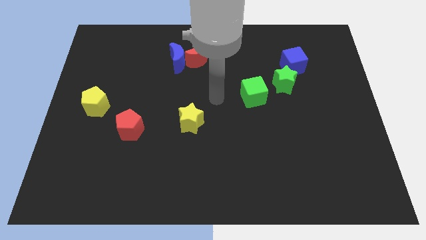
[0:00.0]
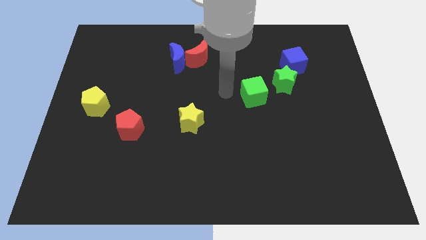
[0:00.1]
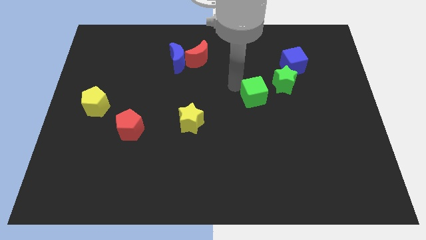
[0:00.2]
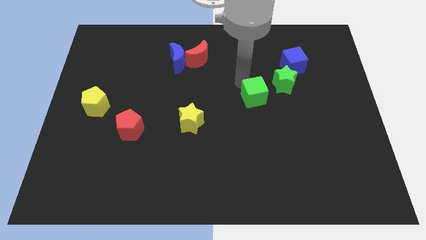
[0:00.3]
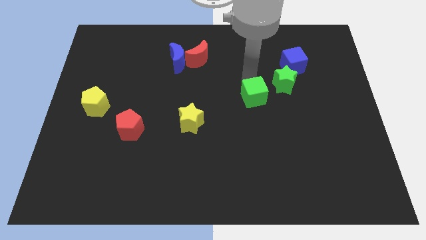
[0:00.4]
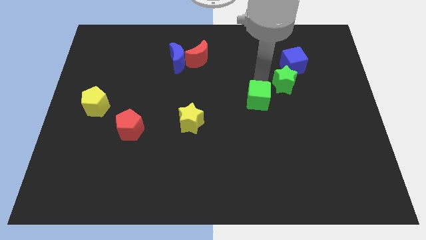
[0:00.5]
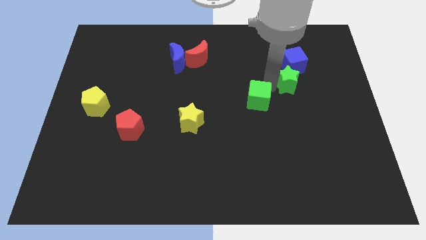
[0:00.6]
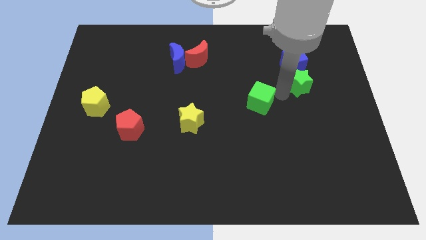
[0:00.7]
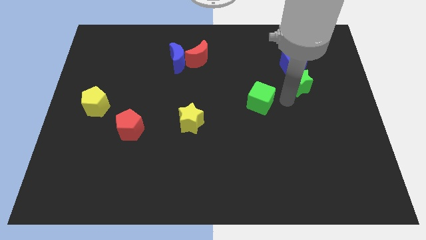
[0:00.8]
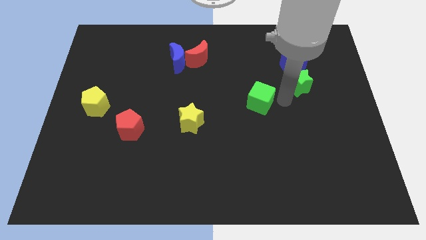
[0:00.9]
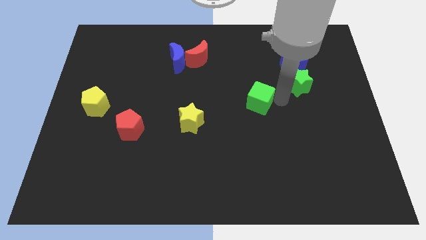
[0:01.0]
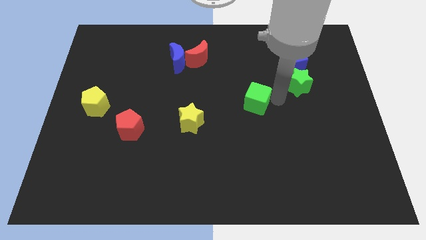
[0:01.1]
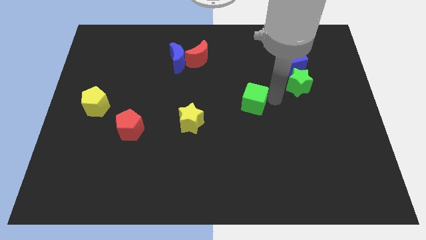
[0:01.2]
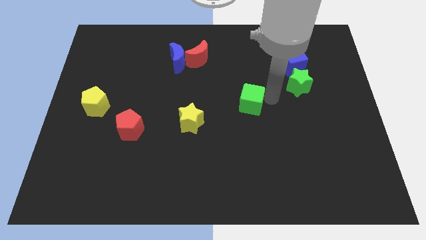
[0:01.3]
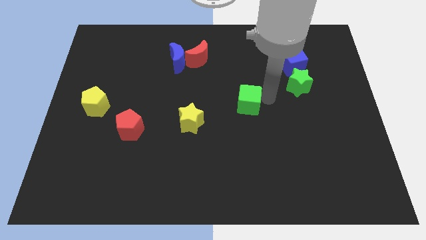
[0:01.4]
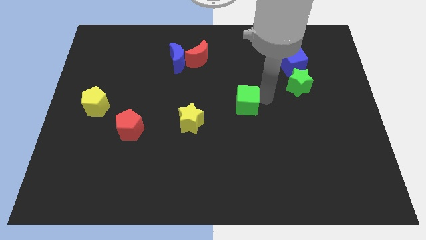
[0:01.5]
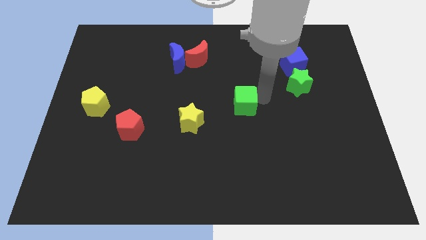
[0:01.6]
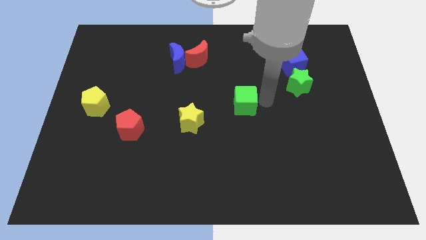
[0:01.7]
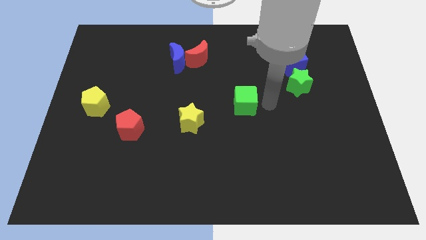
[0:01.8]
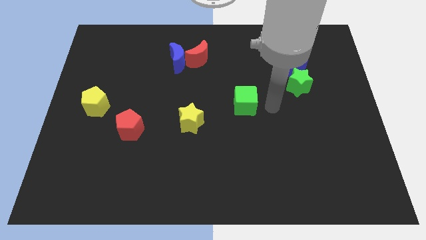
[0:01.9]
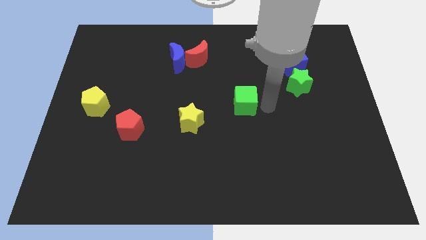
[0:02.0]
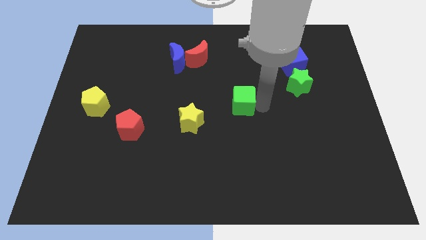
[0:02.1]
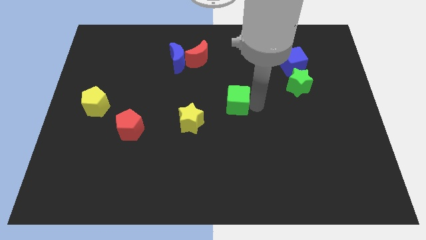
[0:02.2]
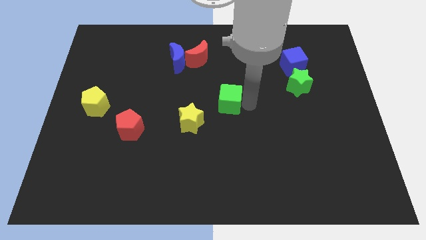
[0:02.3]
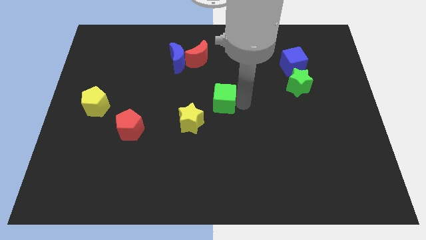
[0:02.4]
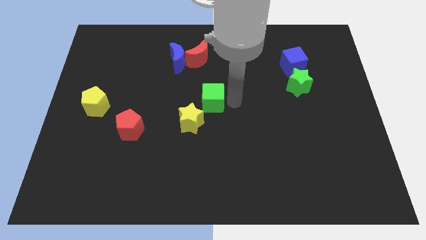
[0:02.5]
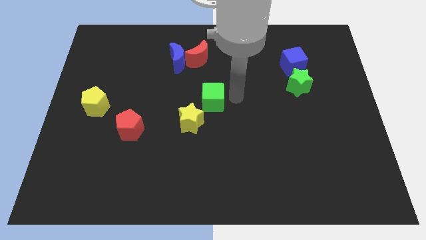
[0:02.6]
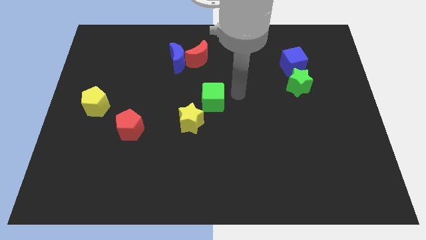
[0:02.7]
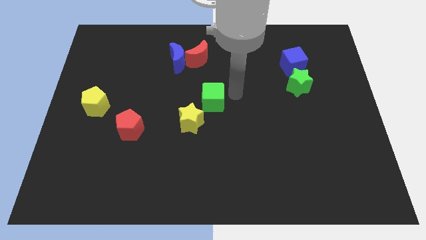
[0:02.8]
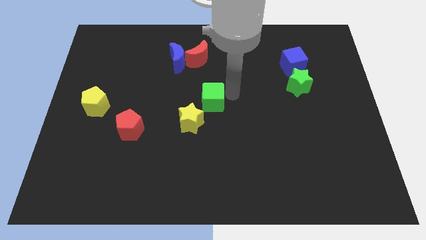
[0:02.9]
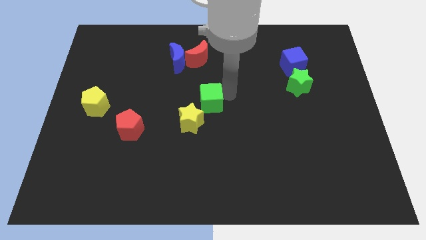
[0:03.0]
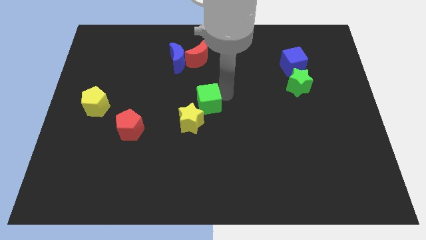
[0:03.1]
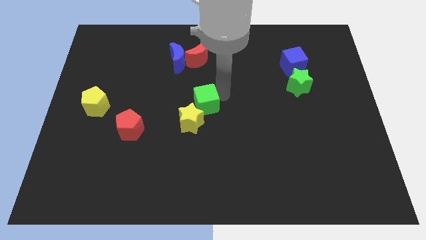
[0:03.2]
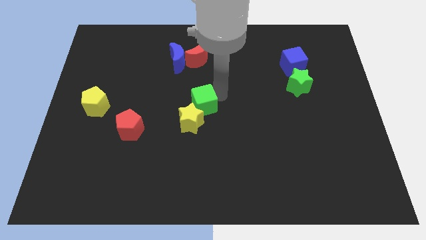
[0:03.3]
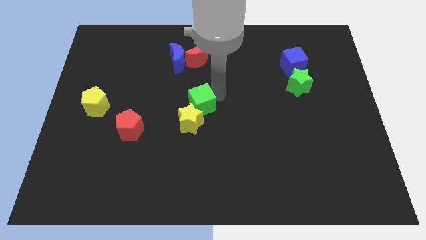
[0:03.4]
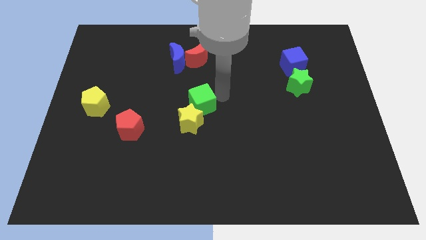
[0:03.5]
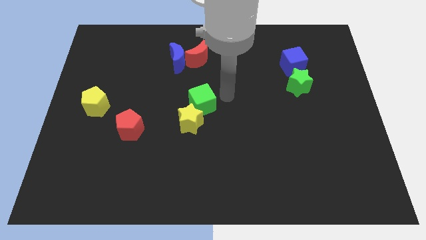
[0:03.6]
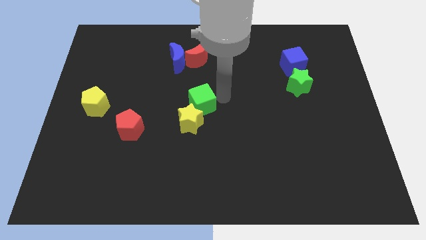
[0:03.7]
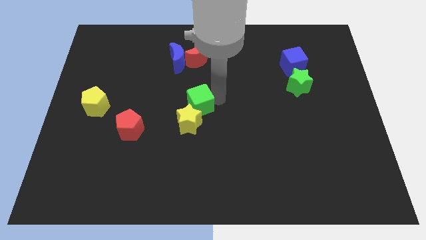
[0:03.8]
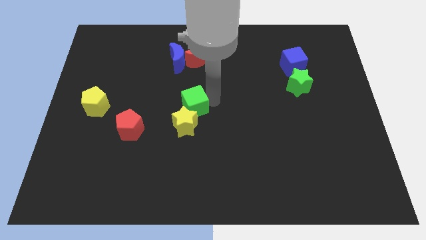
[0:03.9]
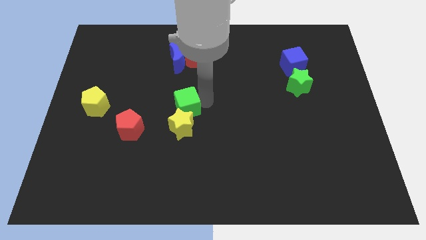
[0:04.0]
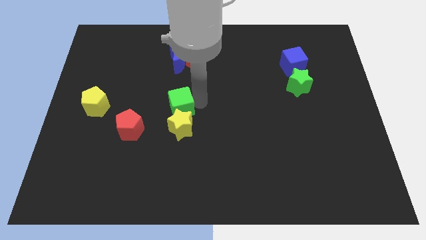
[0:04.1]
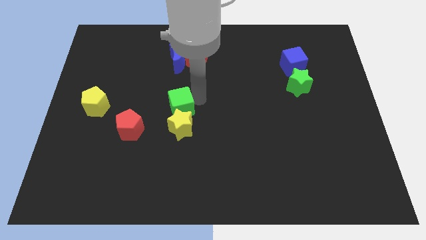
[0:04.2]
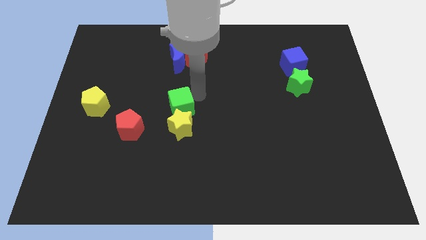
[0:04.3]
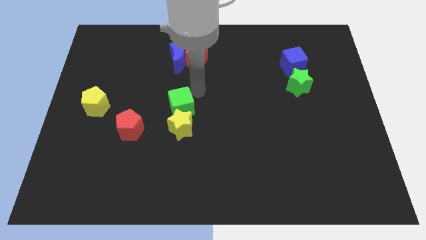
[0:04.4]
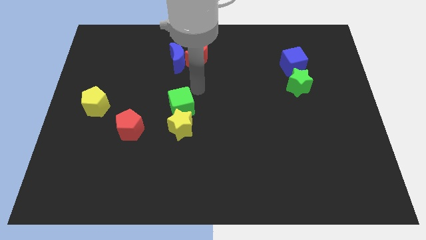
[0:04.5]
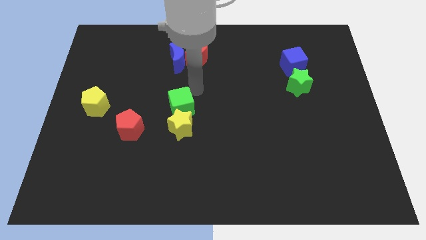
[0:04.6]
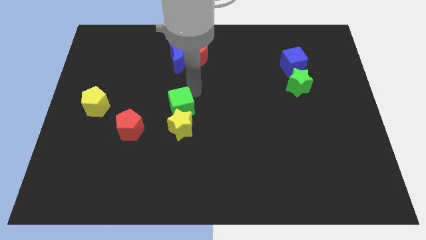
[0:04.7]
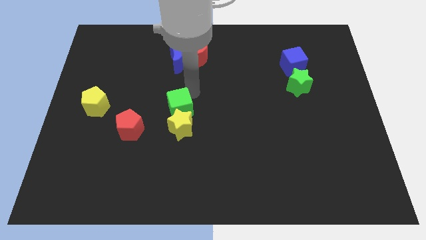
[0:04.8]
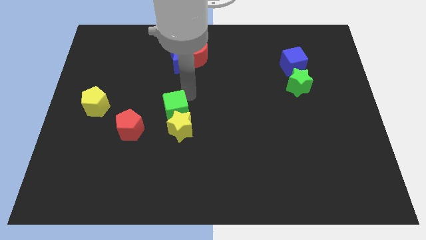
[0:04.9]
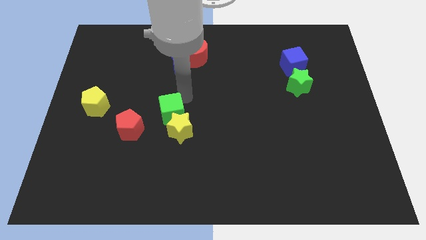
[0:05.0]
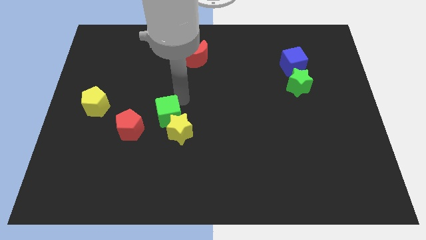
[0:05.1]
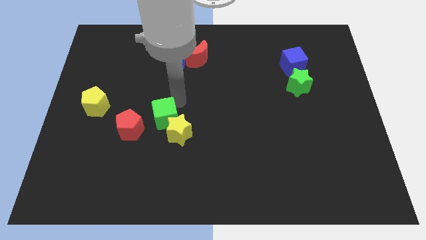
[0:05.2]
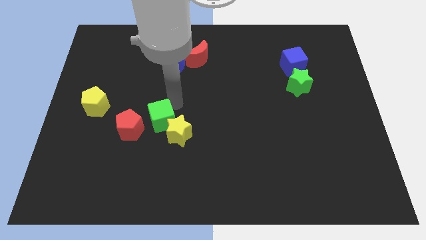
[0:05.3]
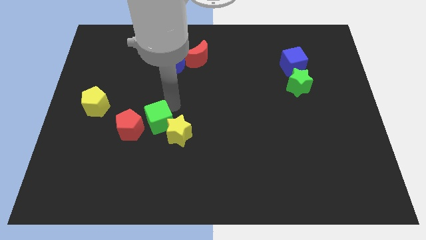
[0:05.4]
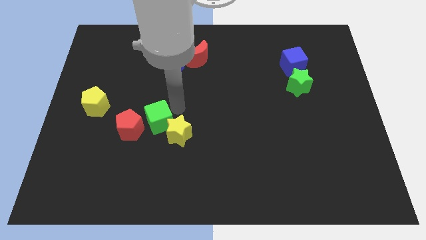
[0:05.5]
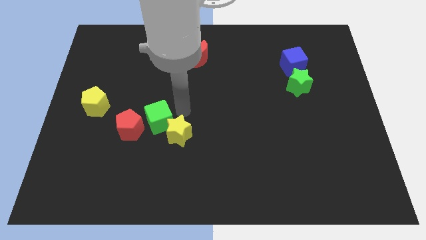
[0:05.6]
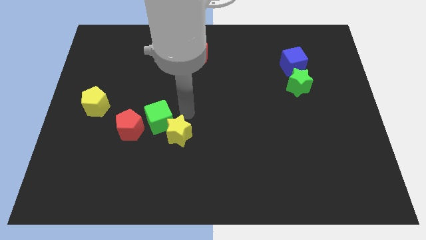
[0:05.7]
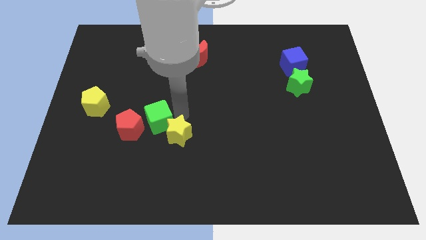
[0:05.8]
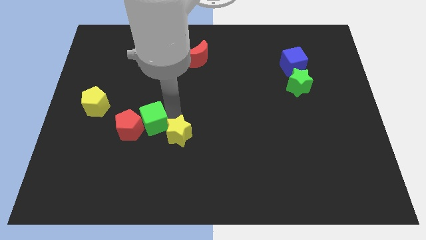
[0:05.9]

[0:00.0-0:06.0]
move the green cube close to the red pentagon

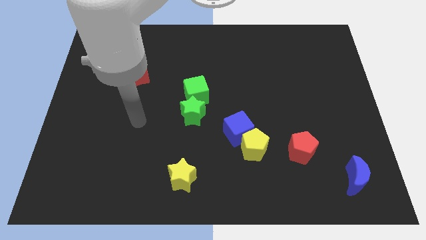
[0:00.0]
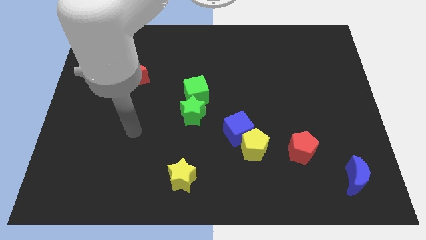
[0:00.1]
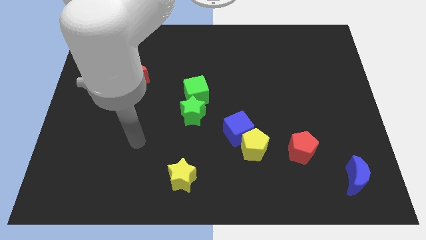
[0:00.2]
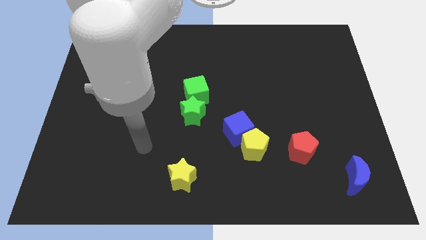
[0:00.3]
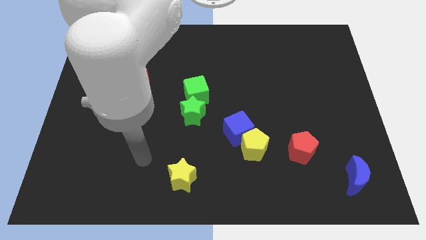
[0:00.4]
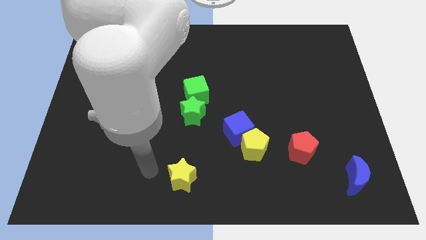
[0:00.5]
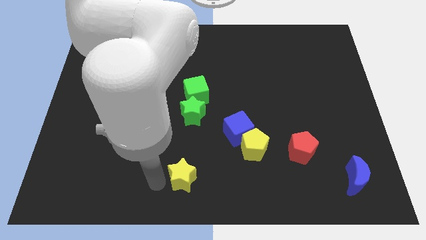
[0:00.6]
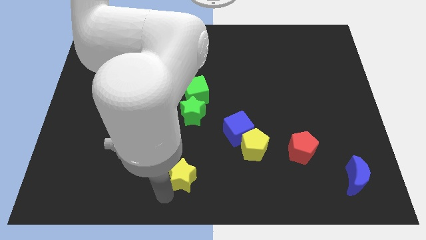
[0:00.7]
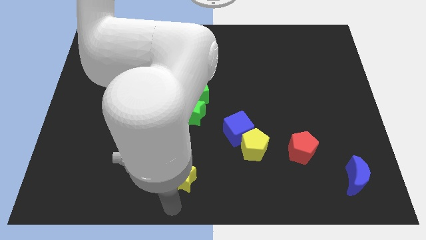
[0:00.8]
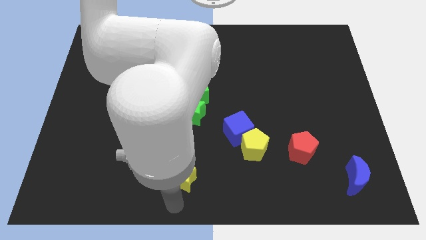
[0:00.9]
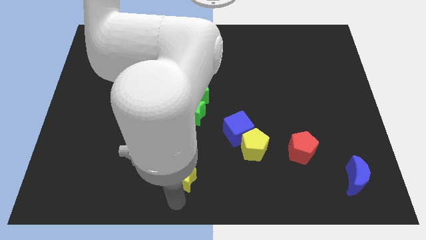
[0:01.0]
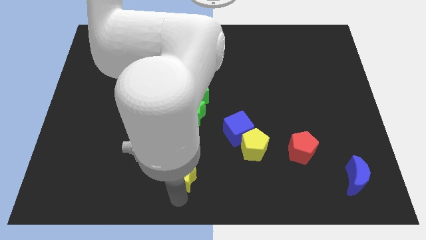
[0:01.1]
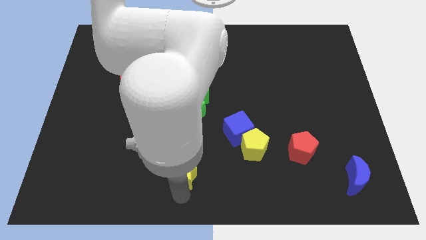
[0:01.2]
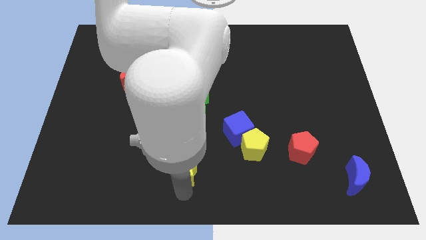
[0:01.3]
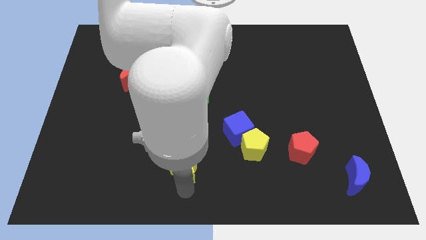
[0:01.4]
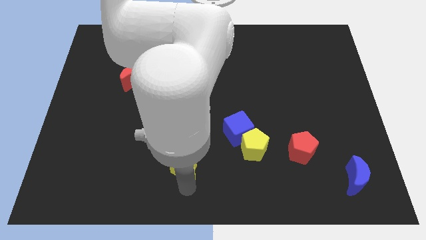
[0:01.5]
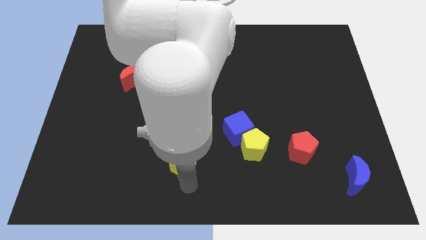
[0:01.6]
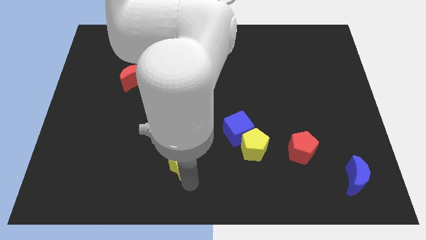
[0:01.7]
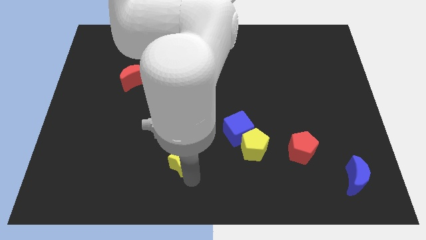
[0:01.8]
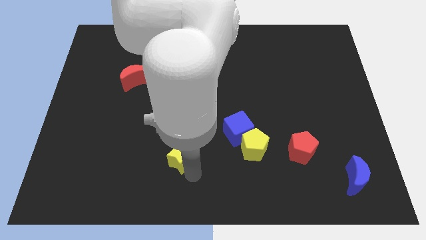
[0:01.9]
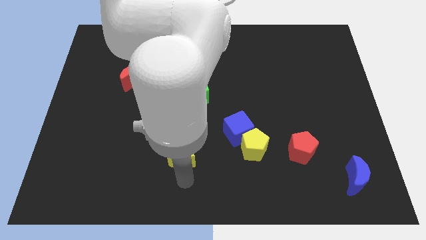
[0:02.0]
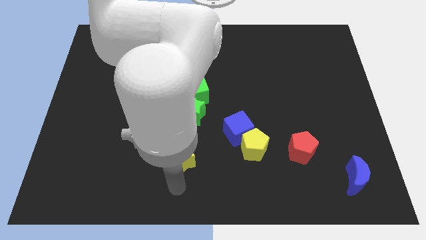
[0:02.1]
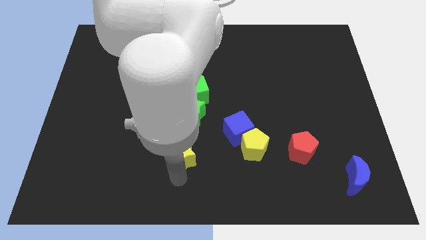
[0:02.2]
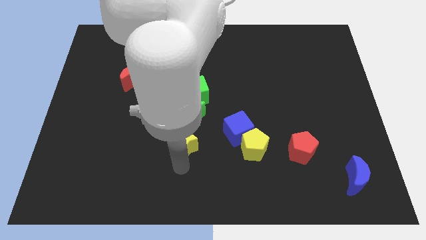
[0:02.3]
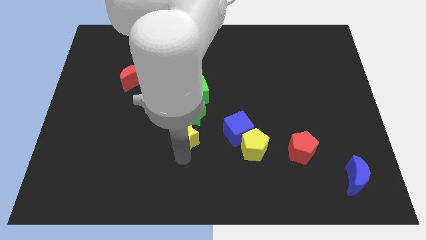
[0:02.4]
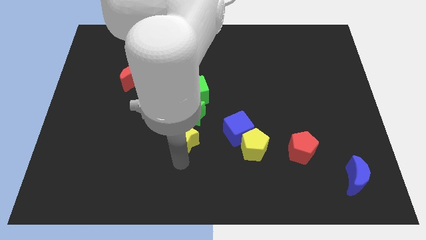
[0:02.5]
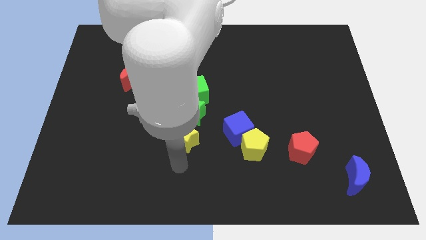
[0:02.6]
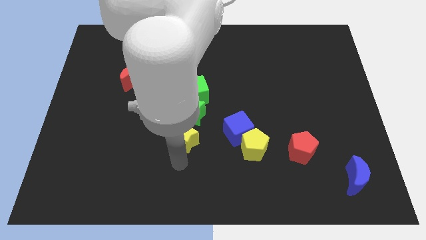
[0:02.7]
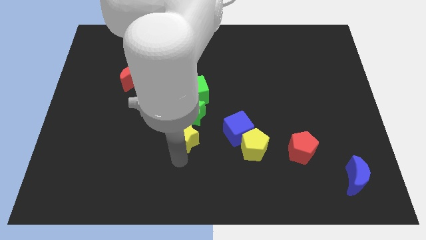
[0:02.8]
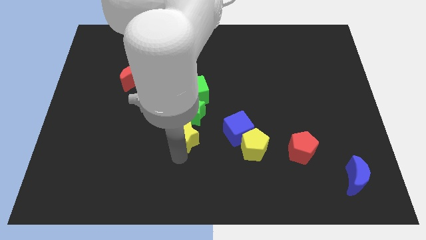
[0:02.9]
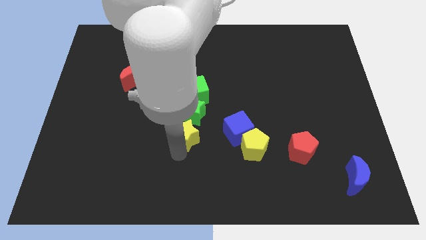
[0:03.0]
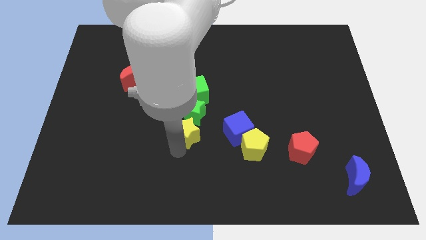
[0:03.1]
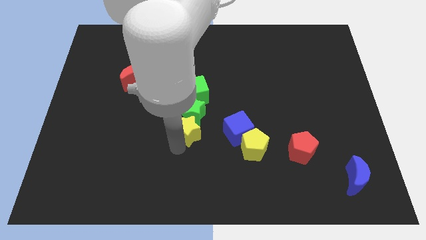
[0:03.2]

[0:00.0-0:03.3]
slide the yellow star next to the green star
